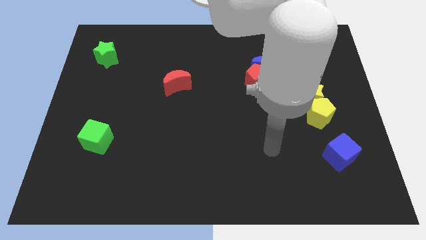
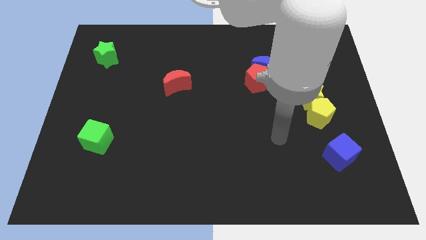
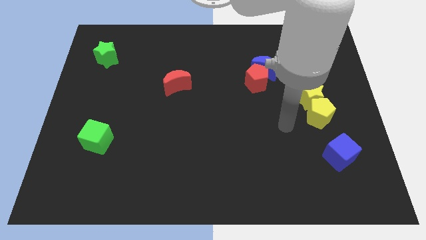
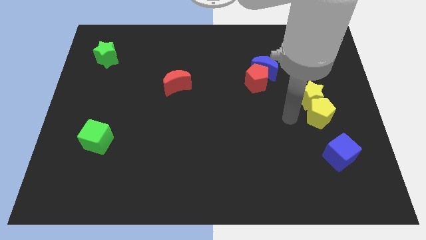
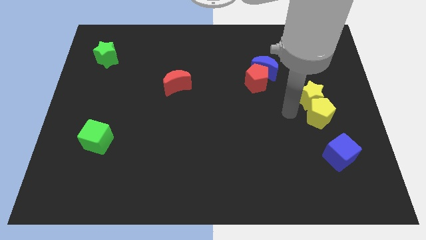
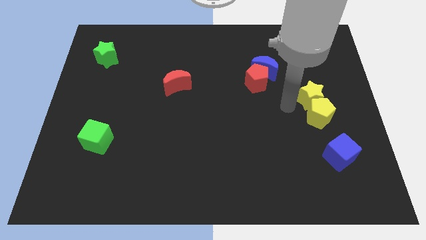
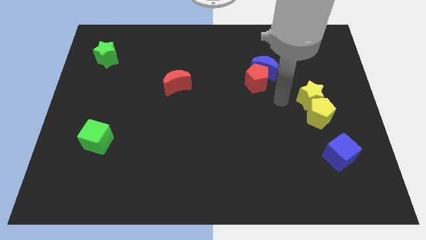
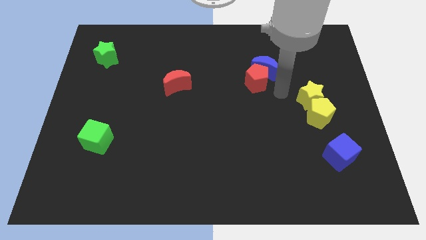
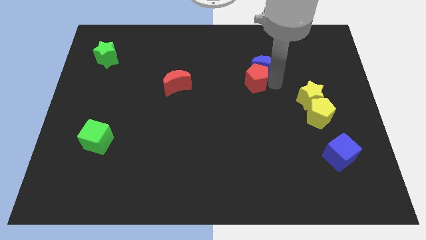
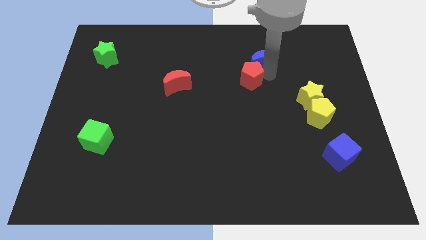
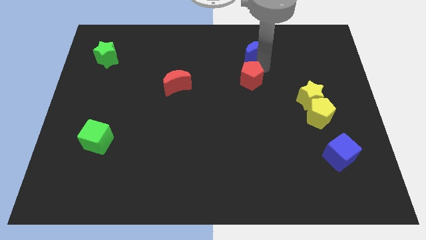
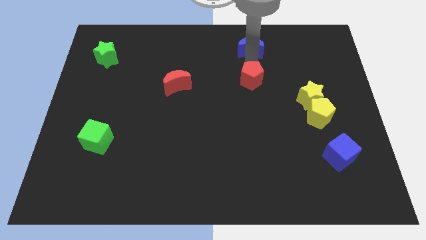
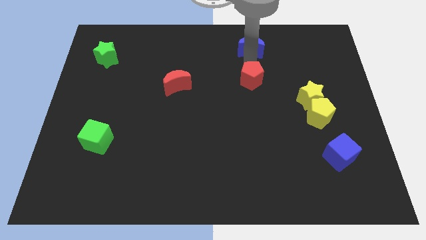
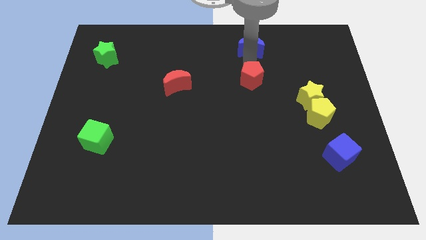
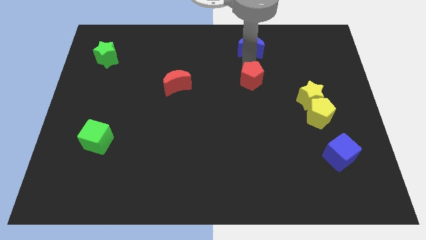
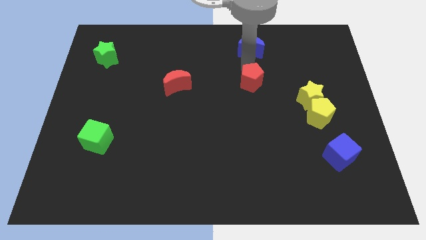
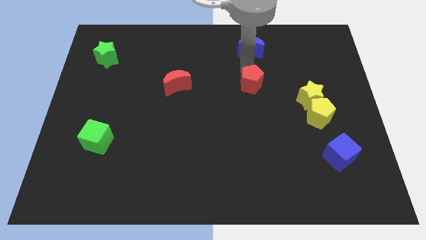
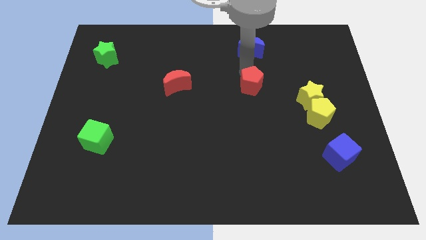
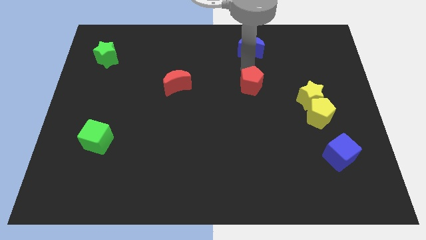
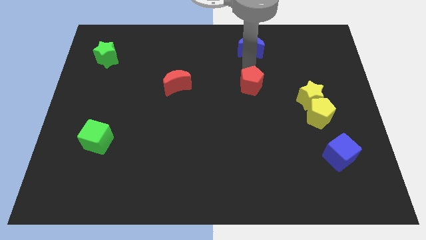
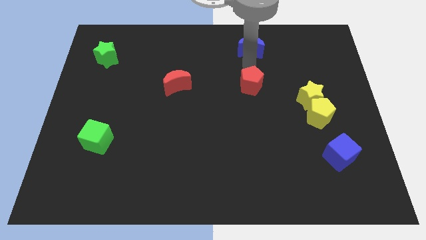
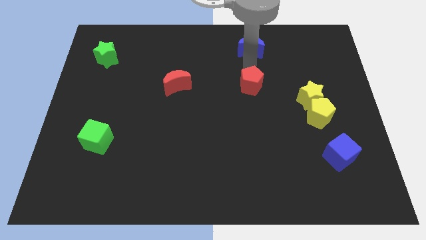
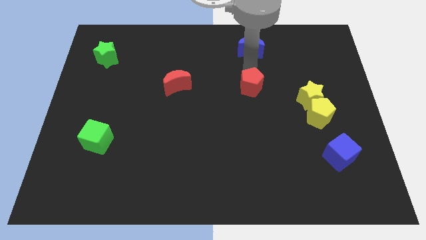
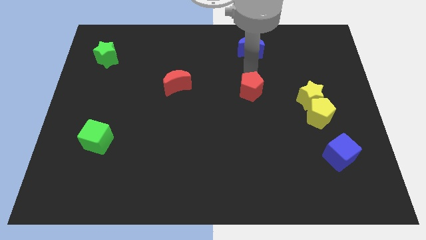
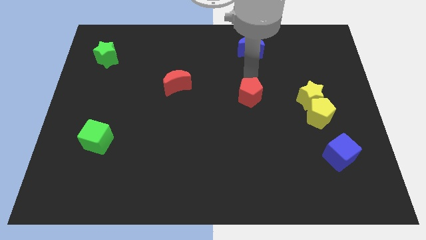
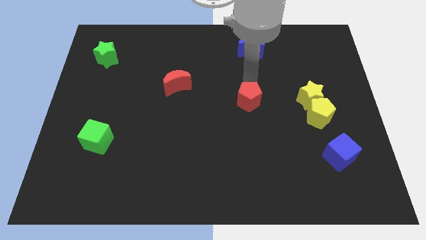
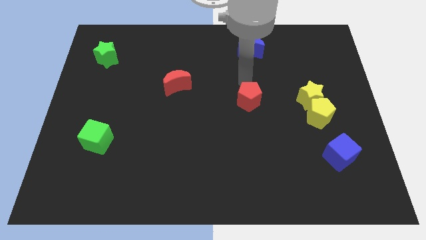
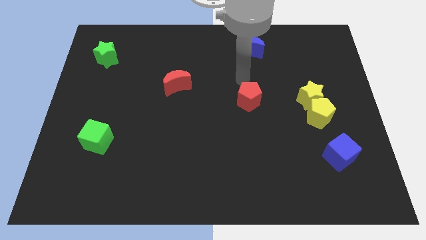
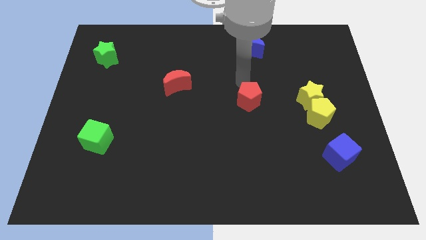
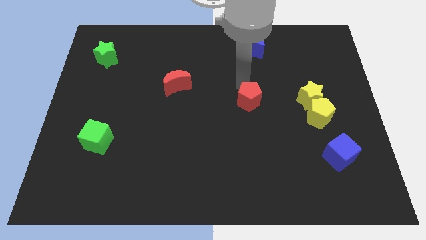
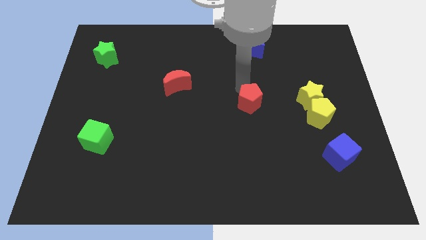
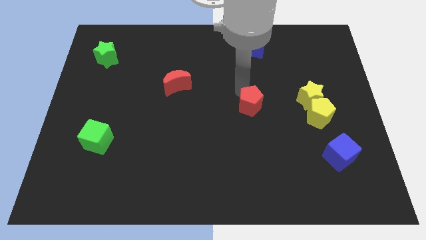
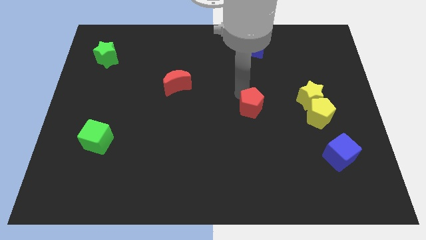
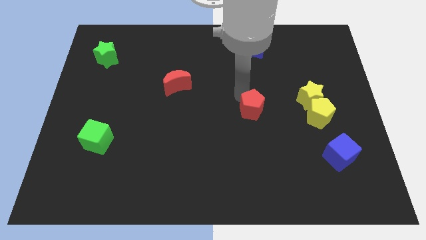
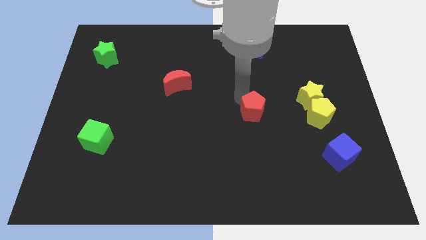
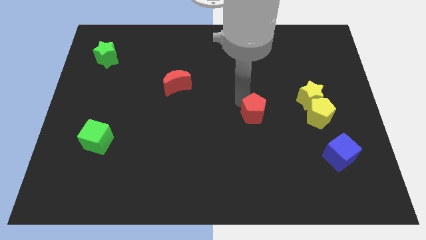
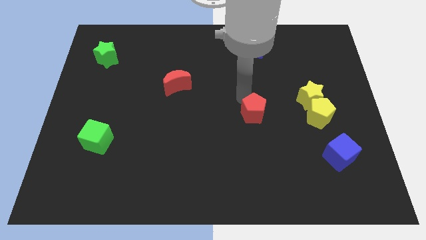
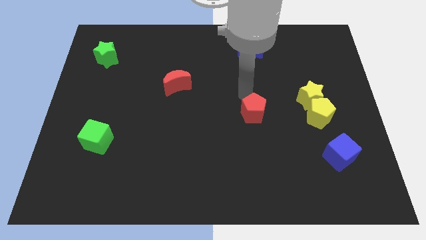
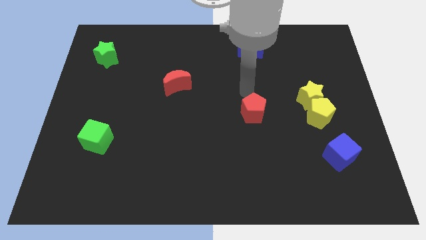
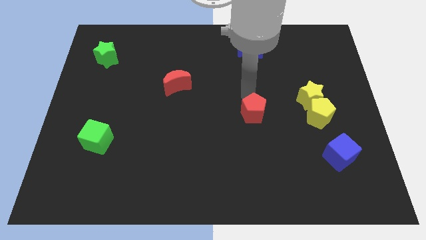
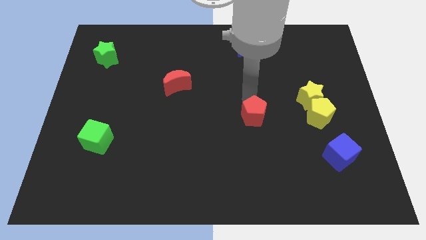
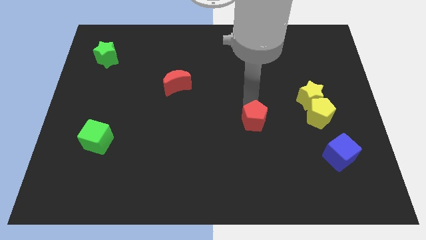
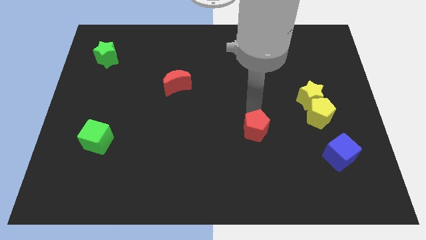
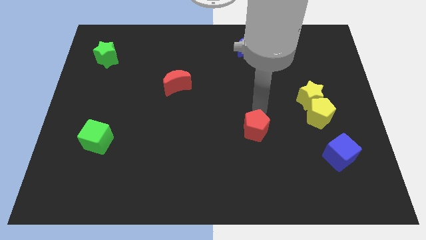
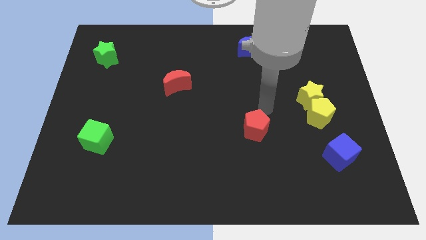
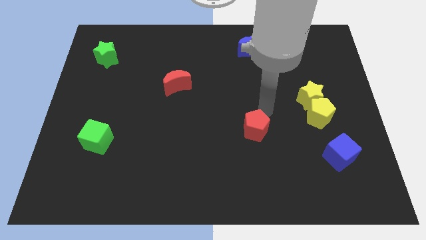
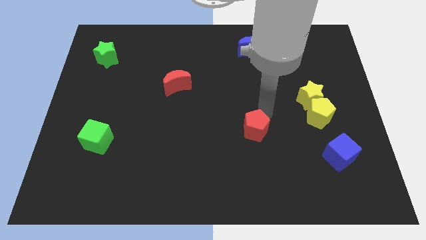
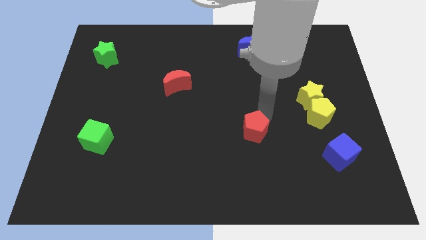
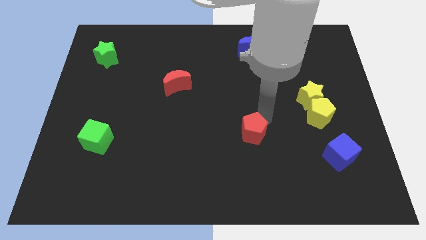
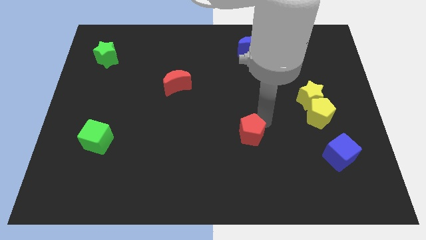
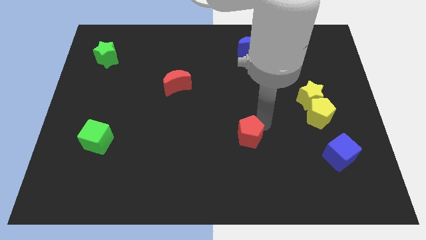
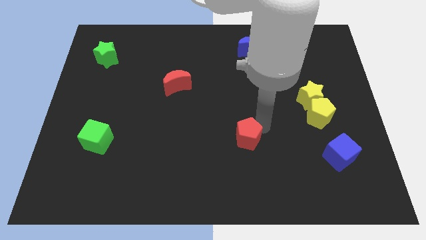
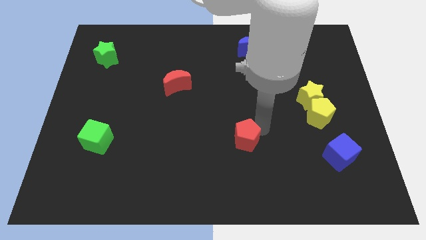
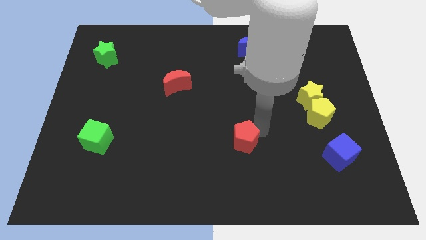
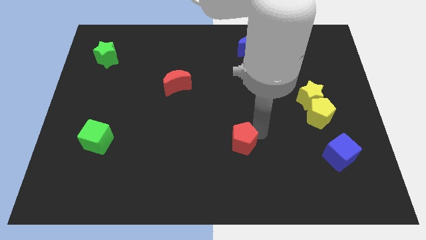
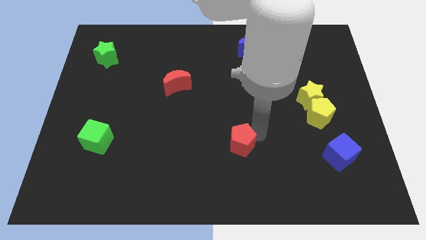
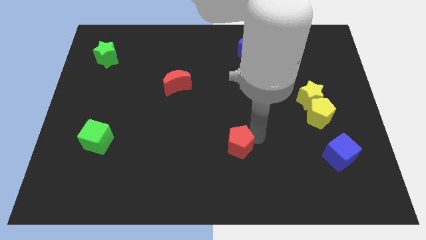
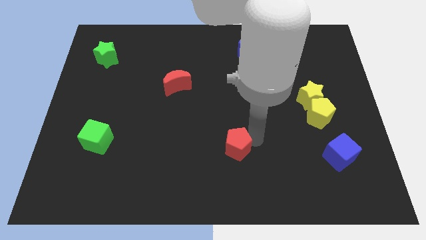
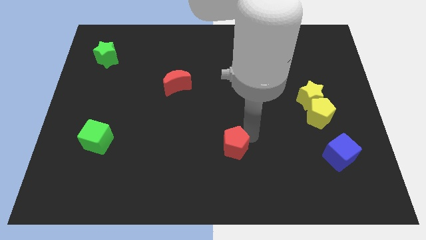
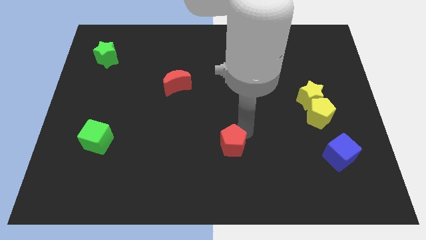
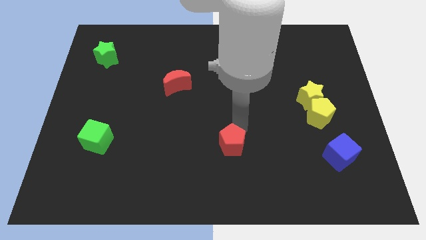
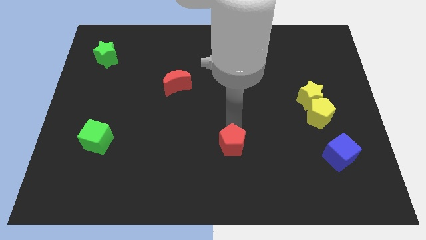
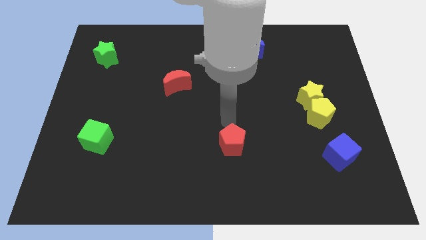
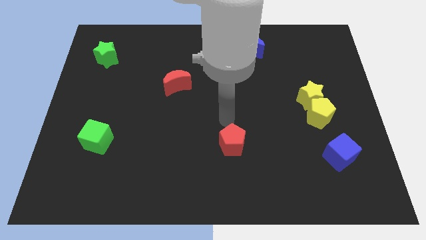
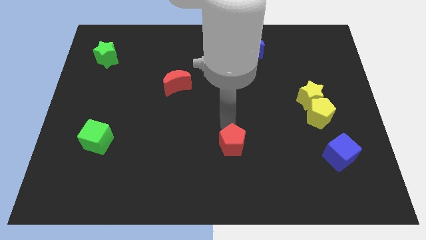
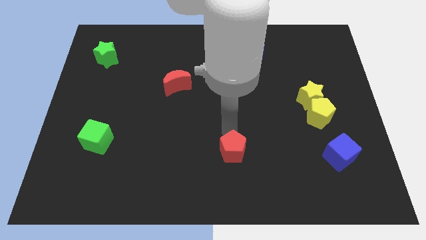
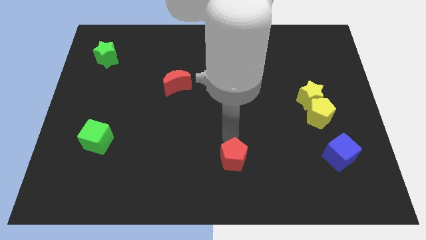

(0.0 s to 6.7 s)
push the red pentagon to the bottom side
